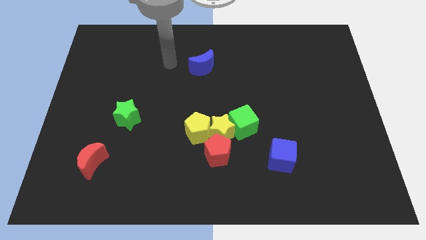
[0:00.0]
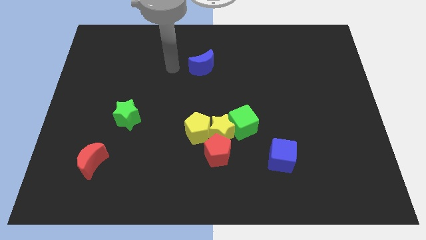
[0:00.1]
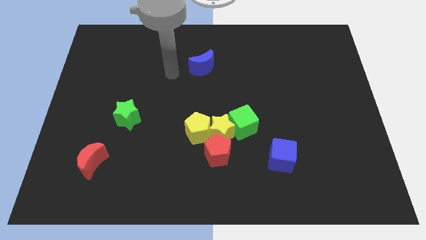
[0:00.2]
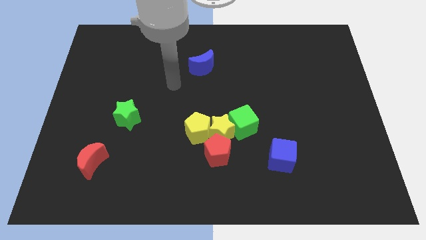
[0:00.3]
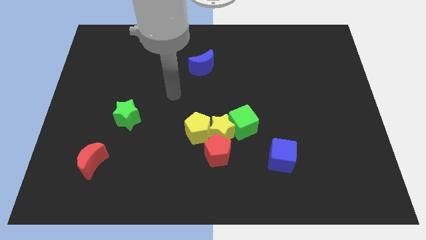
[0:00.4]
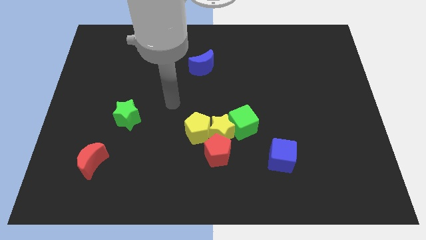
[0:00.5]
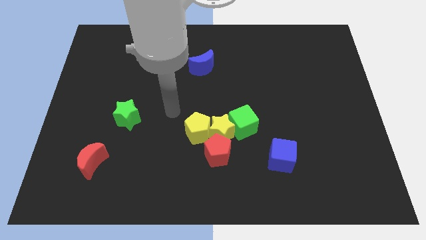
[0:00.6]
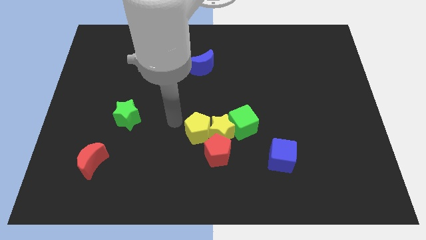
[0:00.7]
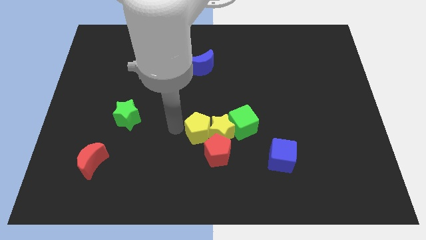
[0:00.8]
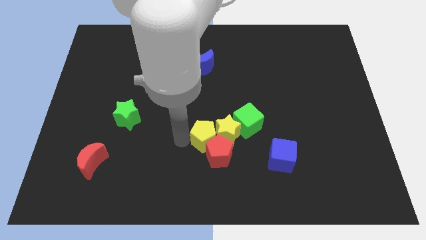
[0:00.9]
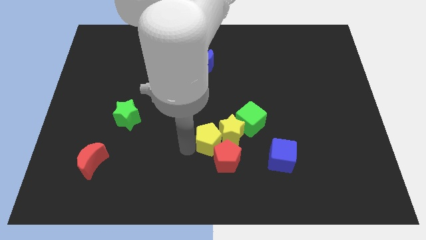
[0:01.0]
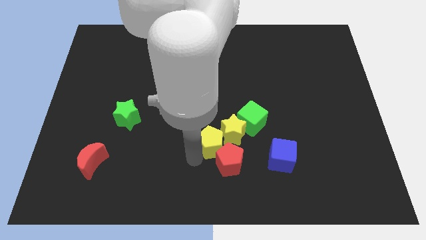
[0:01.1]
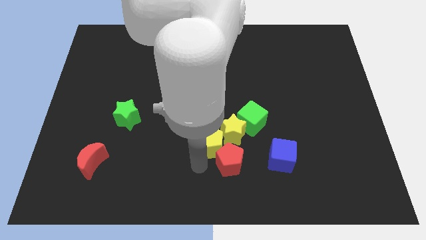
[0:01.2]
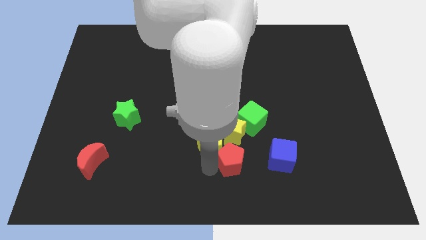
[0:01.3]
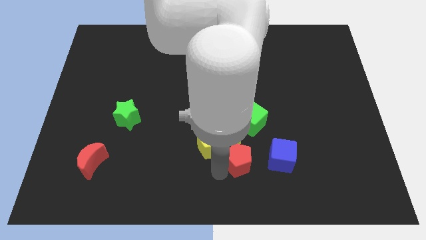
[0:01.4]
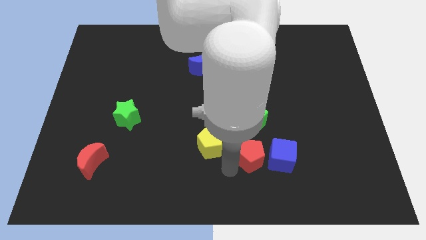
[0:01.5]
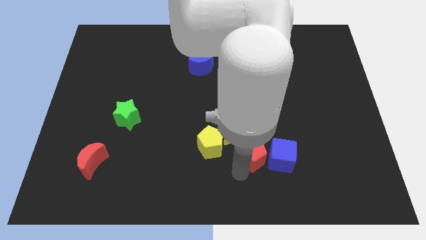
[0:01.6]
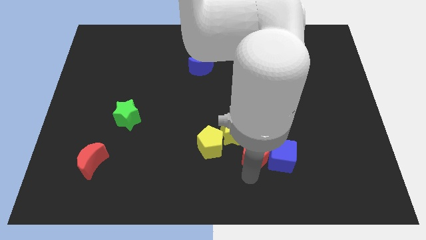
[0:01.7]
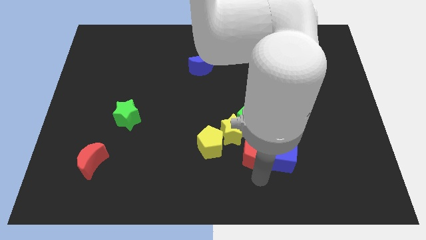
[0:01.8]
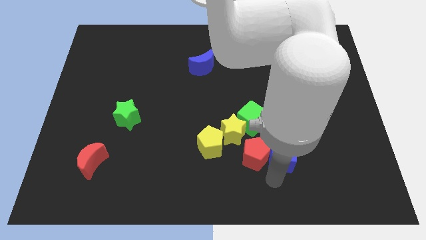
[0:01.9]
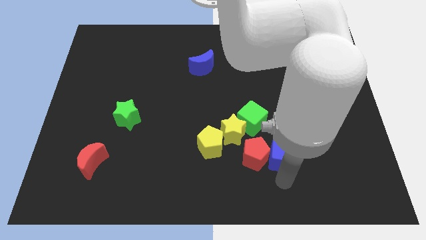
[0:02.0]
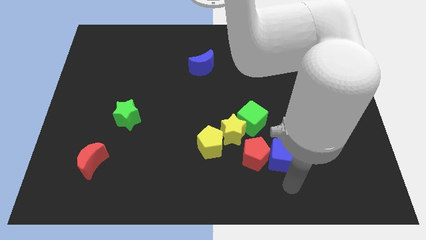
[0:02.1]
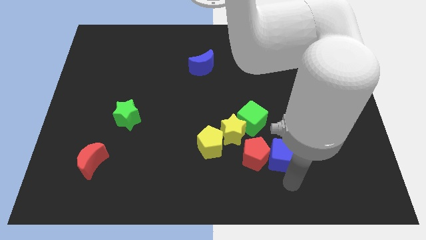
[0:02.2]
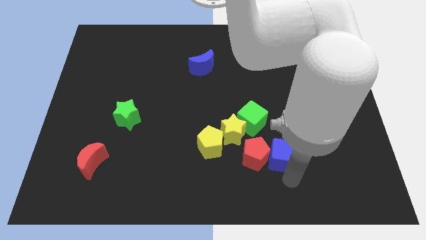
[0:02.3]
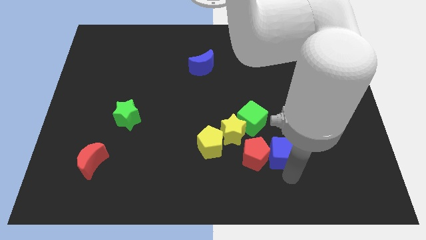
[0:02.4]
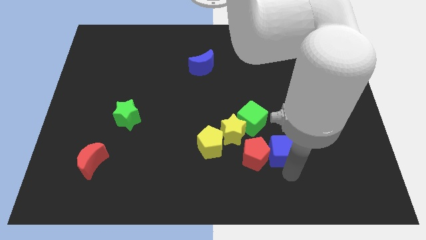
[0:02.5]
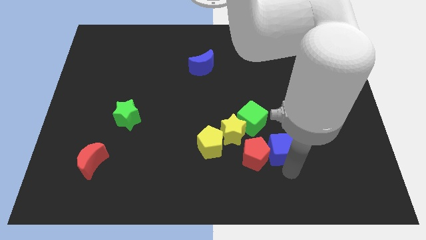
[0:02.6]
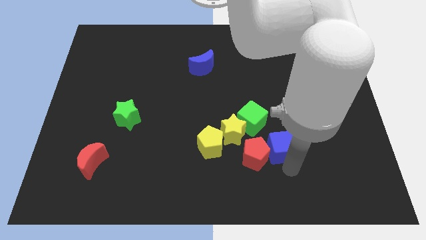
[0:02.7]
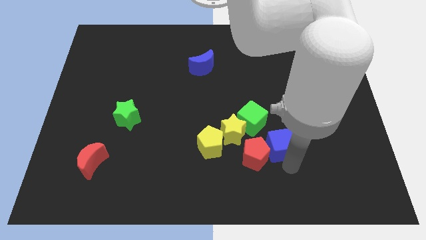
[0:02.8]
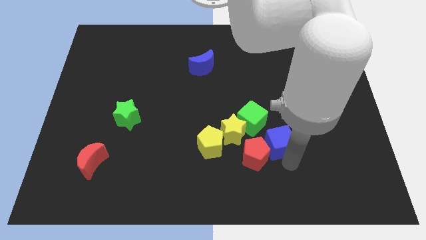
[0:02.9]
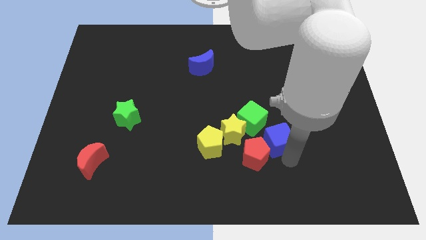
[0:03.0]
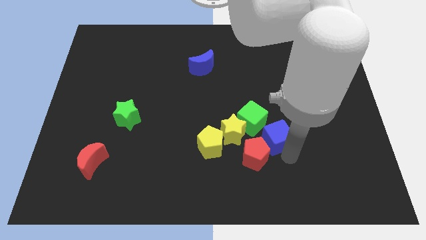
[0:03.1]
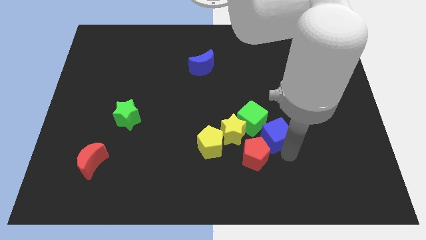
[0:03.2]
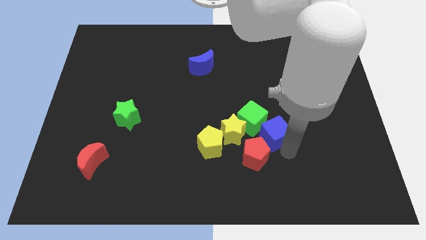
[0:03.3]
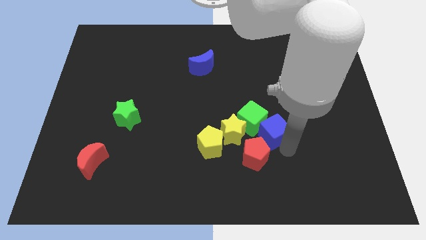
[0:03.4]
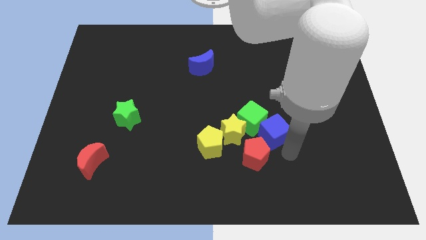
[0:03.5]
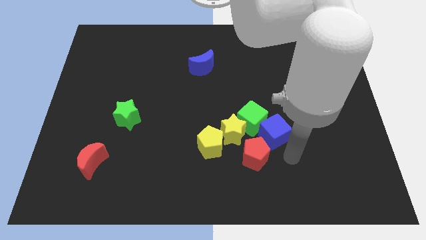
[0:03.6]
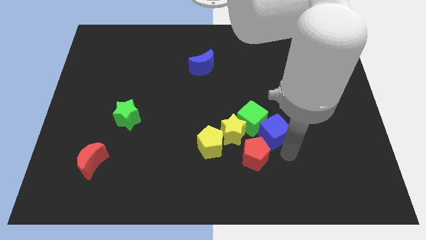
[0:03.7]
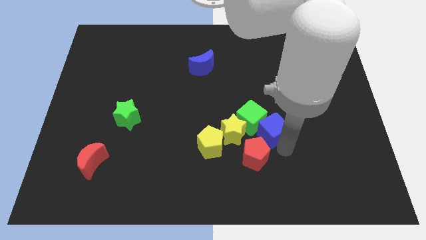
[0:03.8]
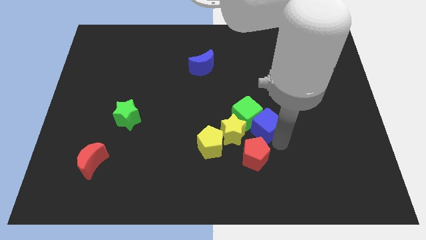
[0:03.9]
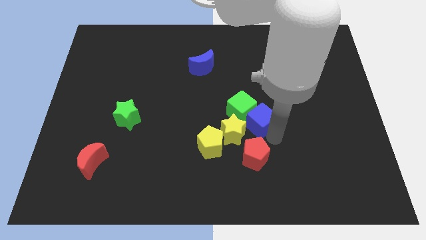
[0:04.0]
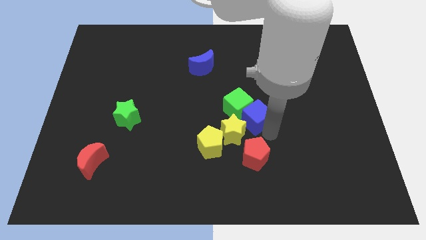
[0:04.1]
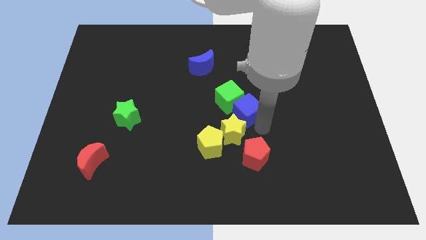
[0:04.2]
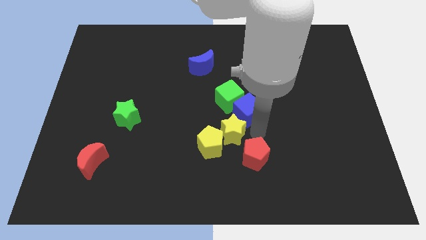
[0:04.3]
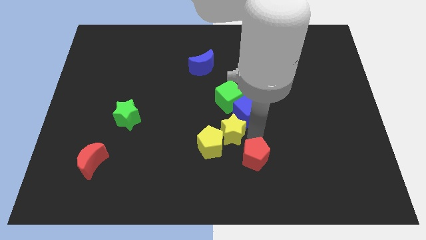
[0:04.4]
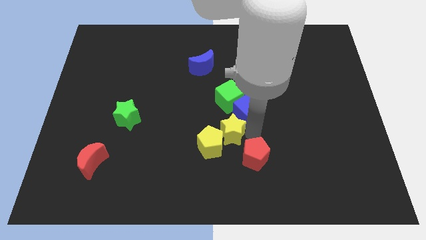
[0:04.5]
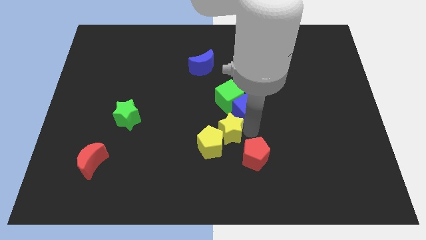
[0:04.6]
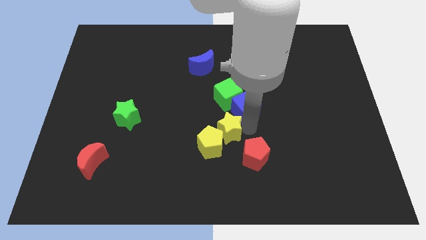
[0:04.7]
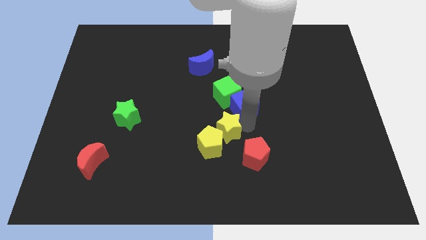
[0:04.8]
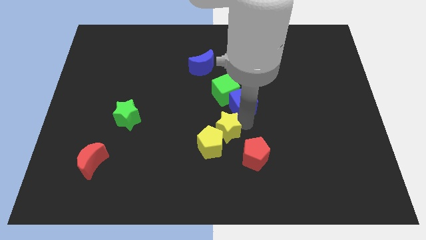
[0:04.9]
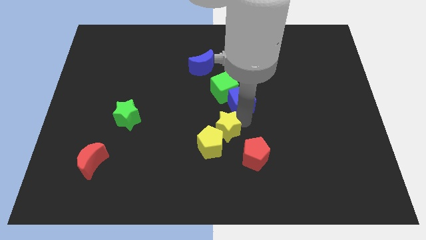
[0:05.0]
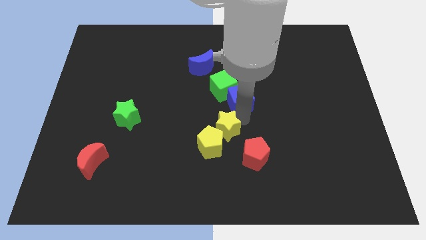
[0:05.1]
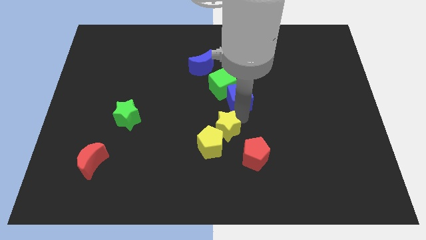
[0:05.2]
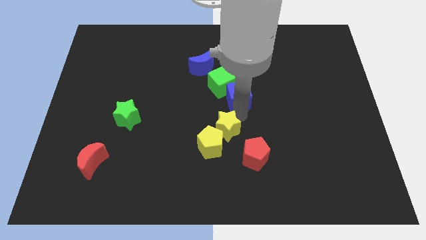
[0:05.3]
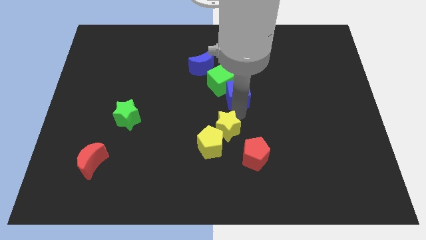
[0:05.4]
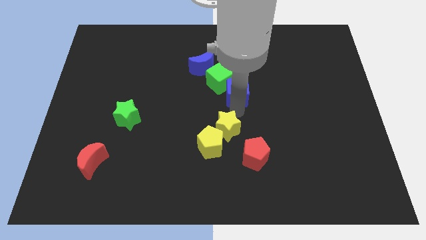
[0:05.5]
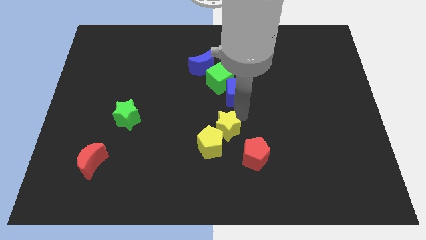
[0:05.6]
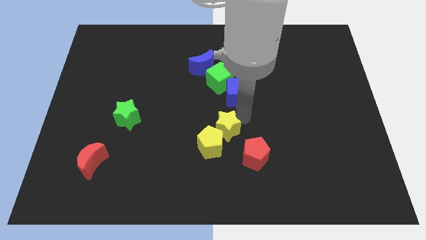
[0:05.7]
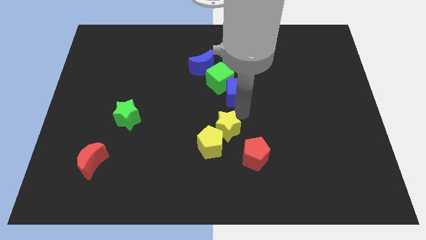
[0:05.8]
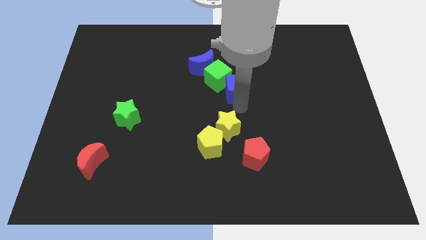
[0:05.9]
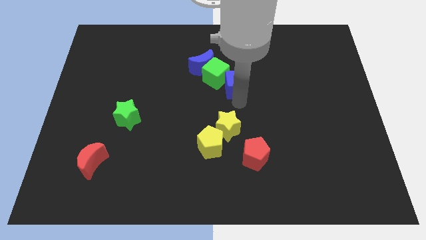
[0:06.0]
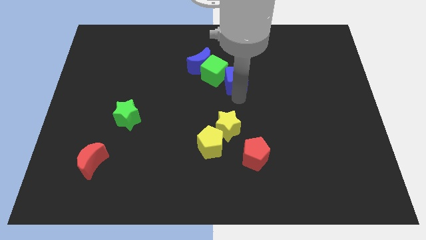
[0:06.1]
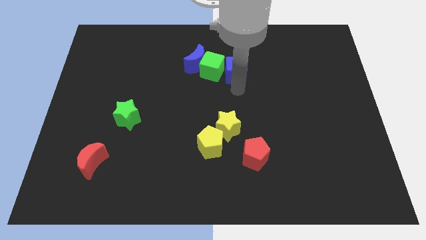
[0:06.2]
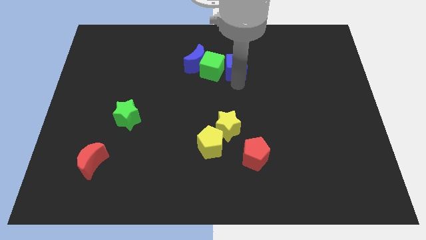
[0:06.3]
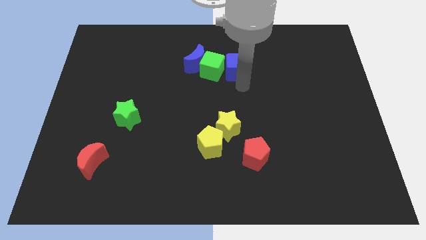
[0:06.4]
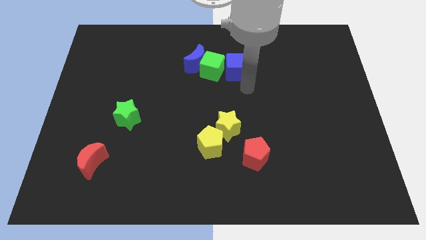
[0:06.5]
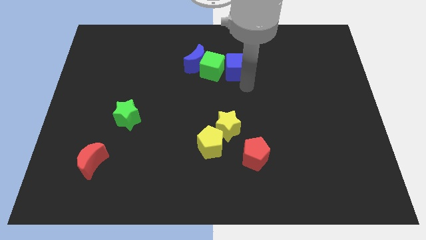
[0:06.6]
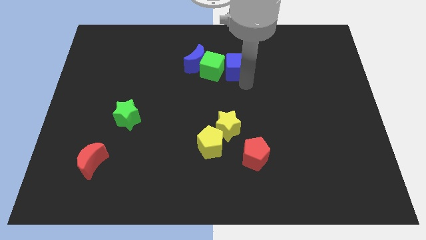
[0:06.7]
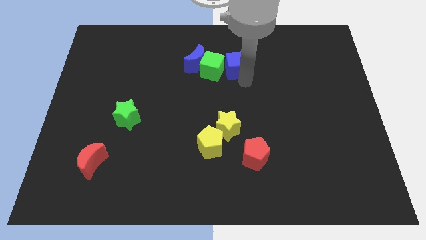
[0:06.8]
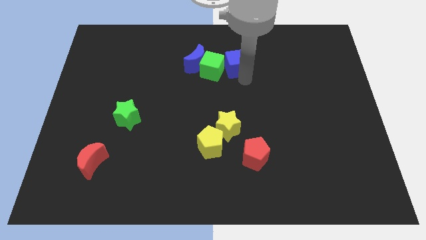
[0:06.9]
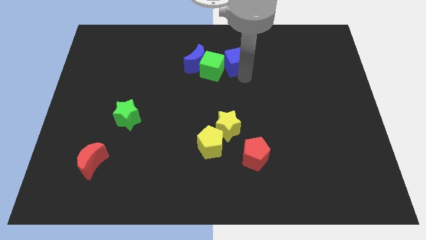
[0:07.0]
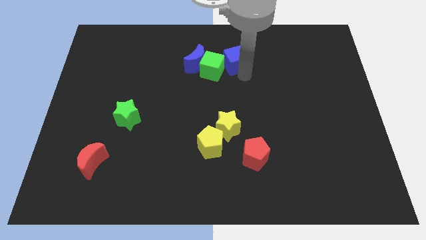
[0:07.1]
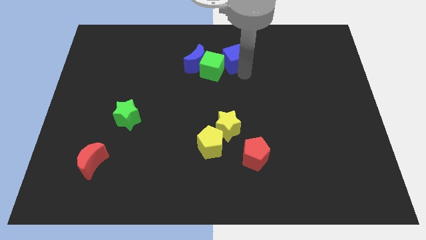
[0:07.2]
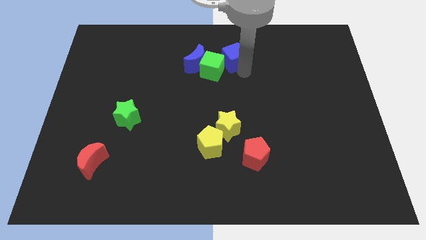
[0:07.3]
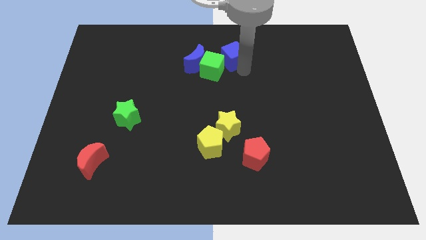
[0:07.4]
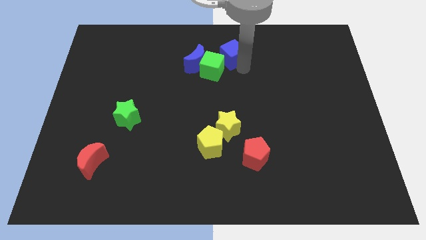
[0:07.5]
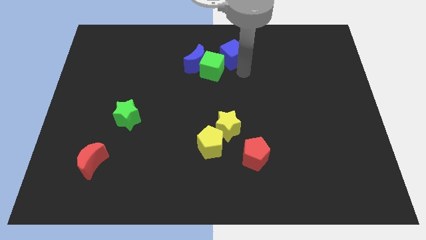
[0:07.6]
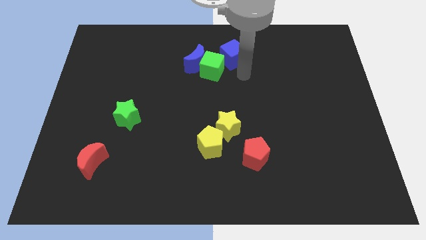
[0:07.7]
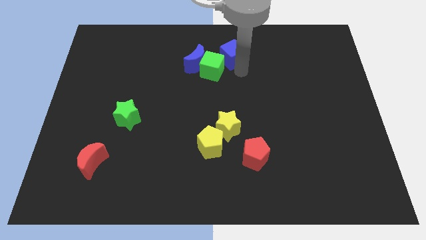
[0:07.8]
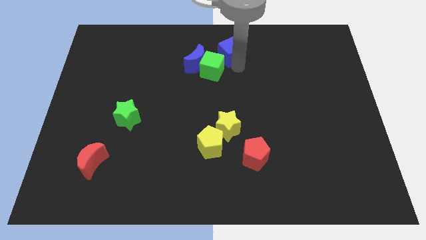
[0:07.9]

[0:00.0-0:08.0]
push the blue cube to the top
